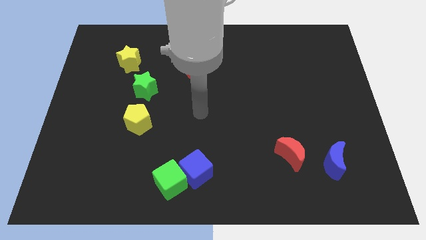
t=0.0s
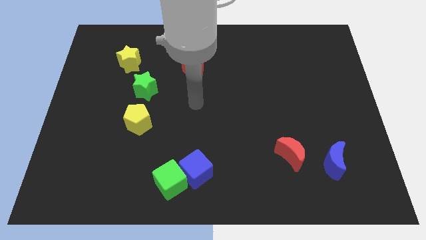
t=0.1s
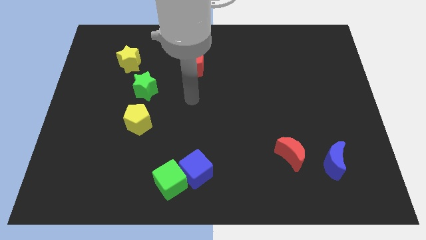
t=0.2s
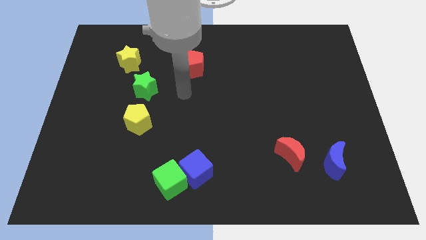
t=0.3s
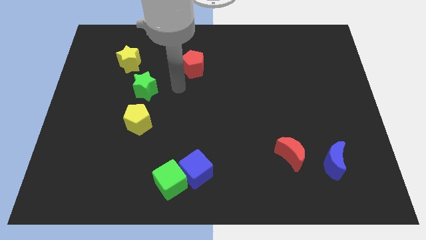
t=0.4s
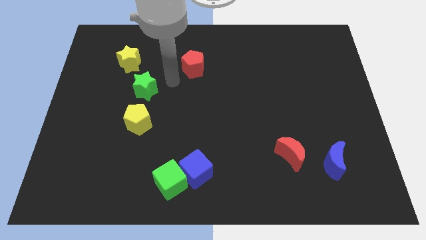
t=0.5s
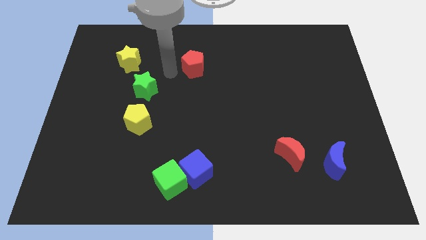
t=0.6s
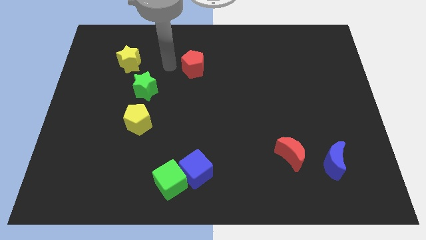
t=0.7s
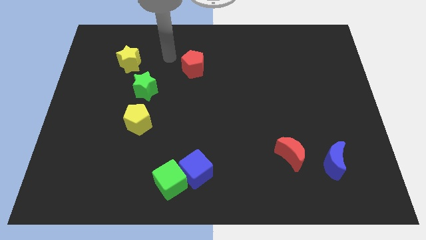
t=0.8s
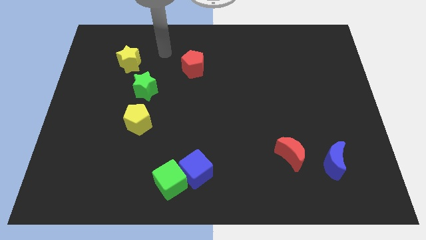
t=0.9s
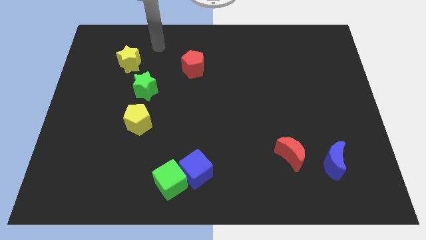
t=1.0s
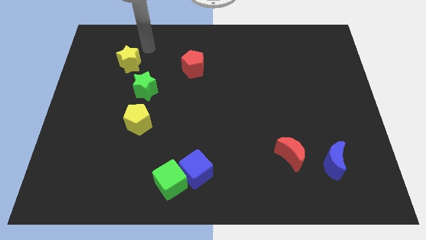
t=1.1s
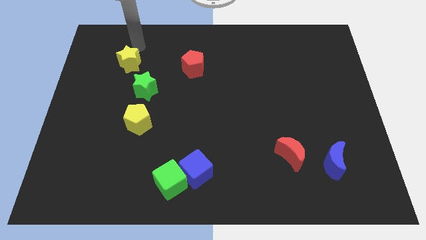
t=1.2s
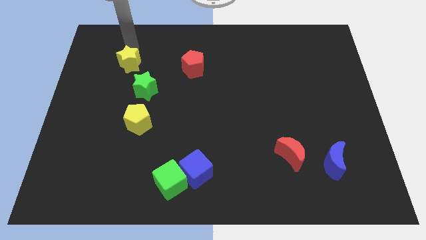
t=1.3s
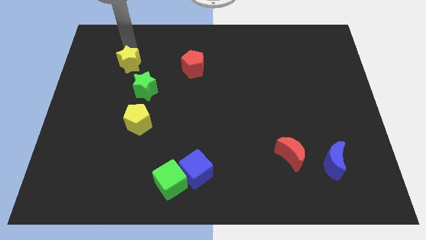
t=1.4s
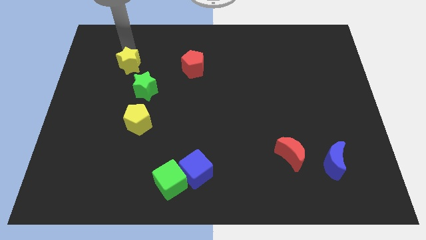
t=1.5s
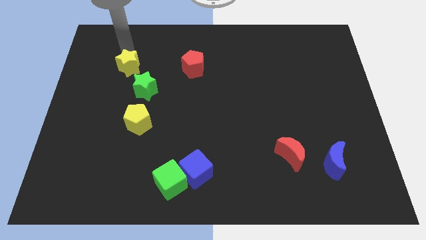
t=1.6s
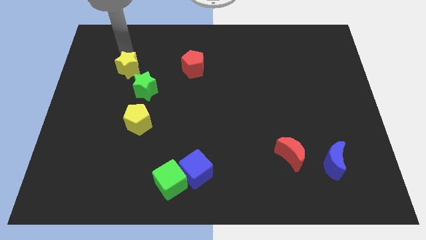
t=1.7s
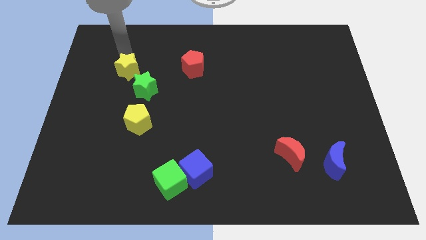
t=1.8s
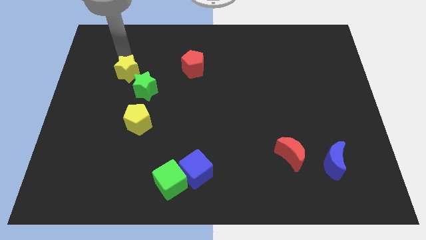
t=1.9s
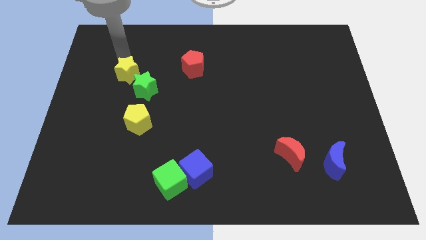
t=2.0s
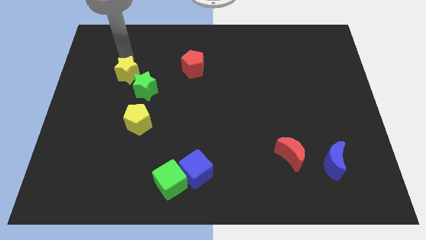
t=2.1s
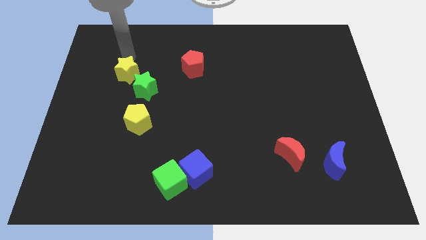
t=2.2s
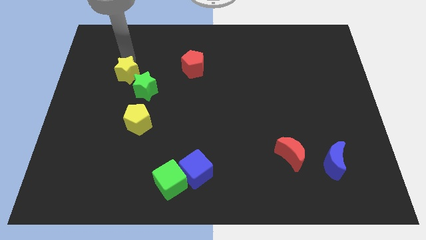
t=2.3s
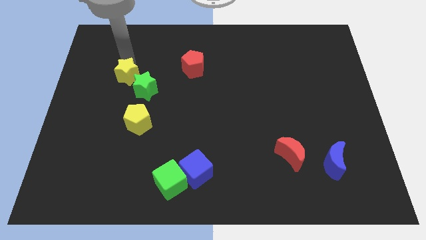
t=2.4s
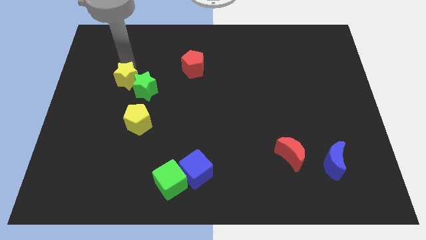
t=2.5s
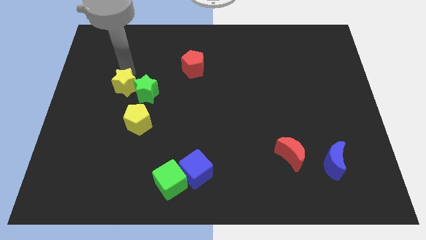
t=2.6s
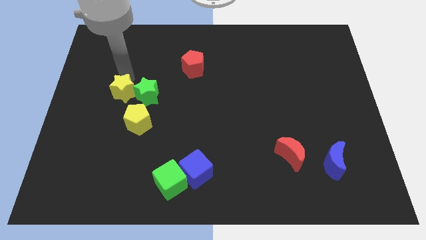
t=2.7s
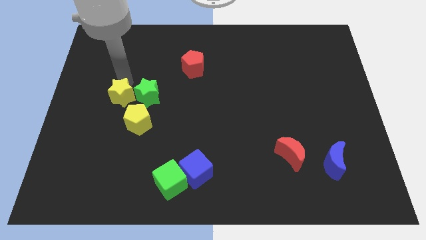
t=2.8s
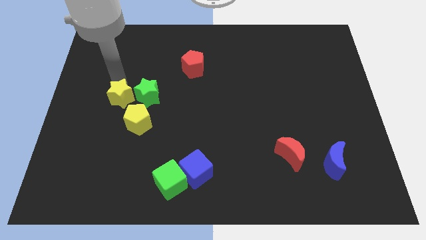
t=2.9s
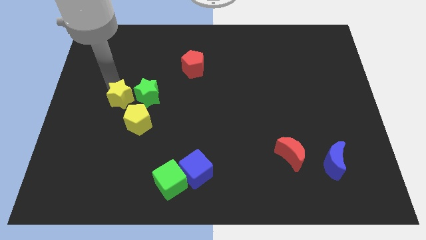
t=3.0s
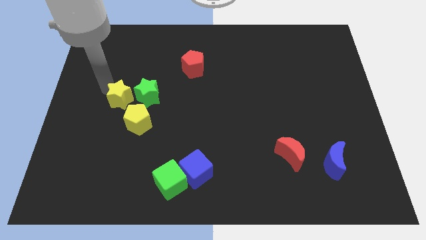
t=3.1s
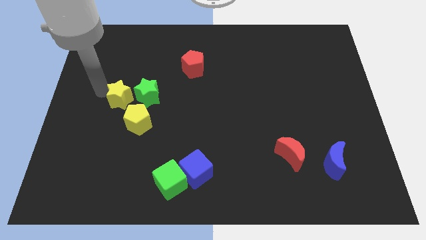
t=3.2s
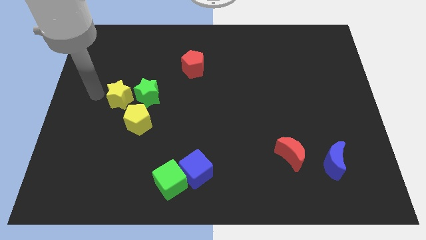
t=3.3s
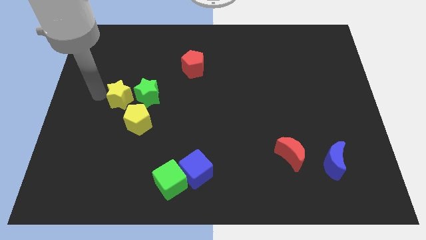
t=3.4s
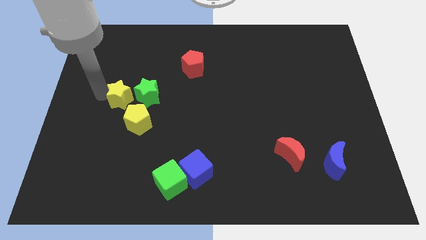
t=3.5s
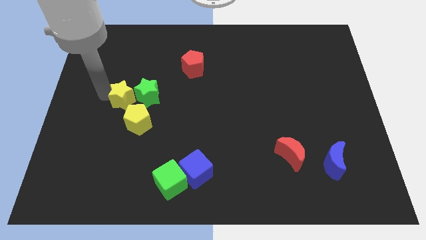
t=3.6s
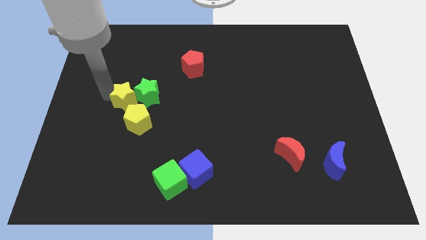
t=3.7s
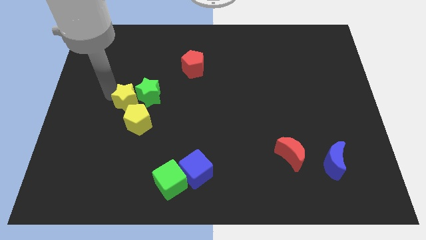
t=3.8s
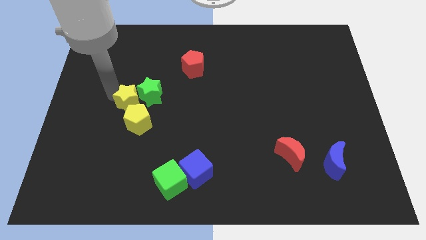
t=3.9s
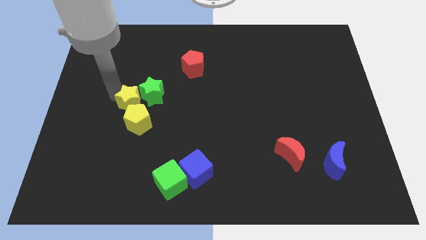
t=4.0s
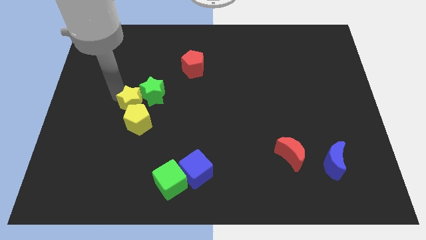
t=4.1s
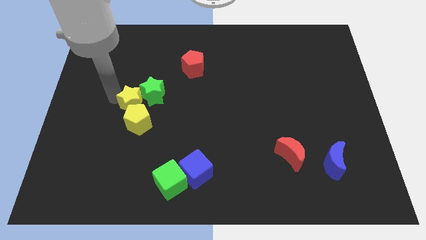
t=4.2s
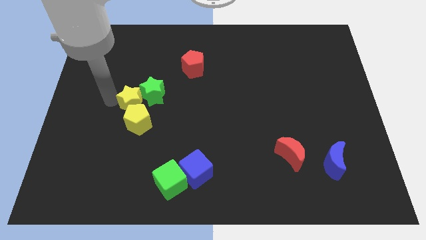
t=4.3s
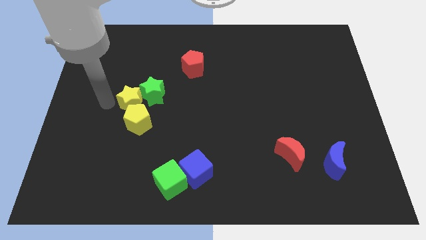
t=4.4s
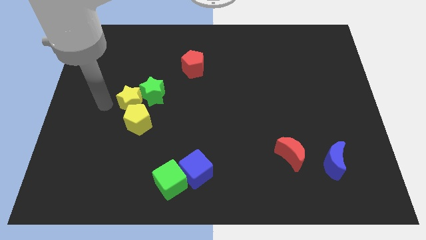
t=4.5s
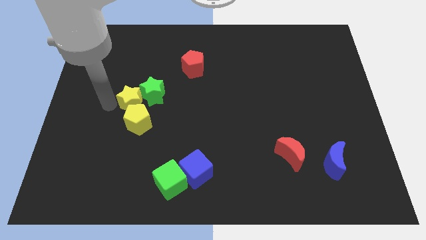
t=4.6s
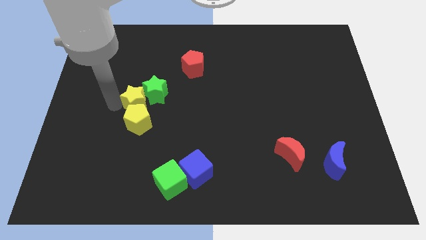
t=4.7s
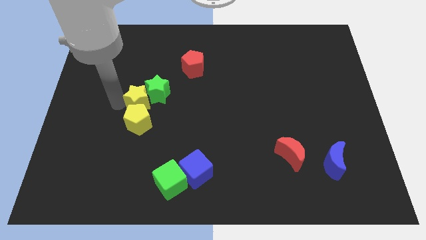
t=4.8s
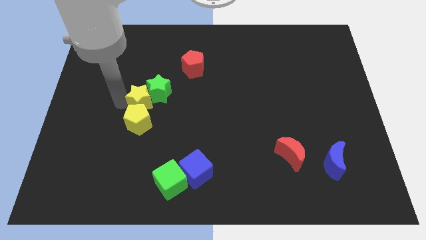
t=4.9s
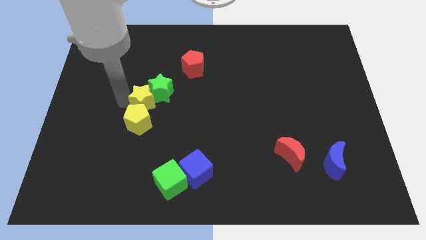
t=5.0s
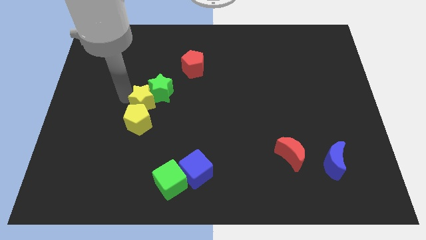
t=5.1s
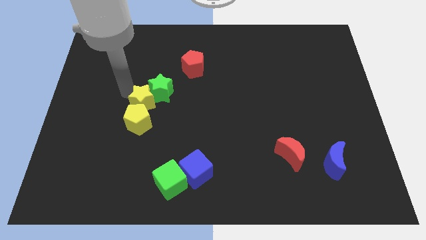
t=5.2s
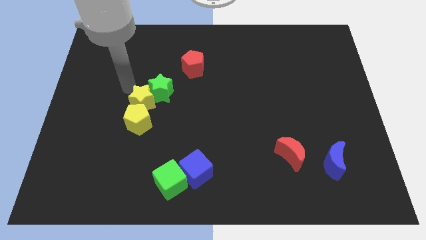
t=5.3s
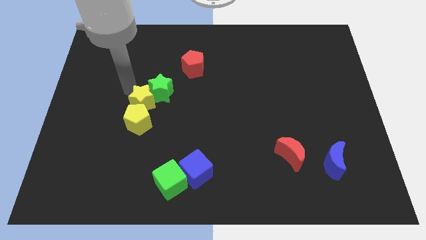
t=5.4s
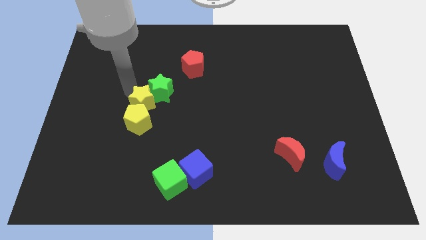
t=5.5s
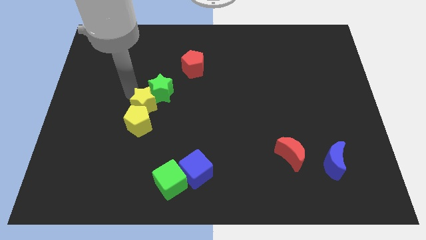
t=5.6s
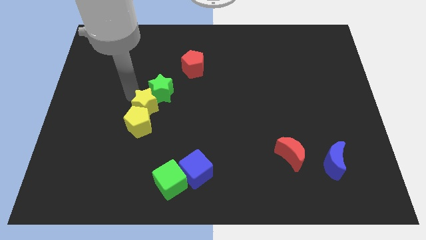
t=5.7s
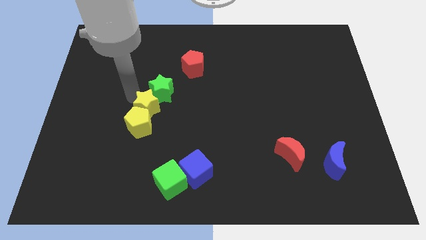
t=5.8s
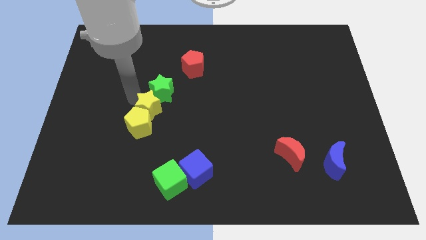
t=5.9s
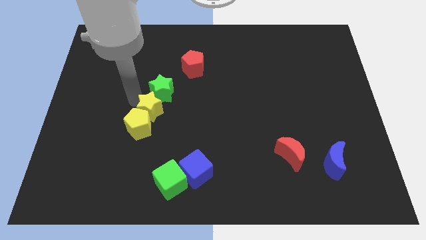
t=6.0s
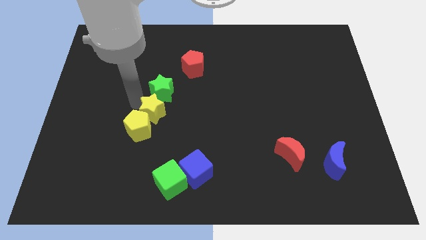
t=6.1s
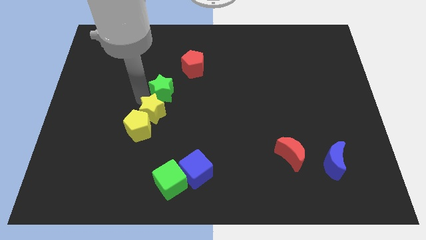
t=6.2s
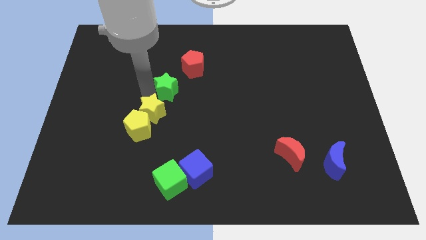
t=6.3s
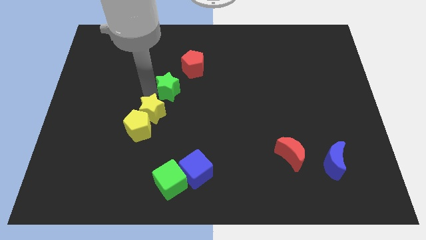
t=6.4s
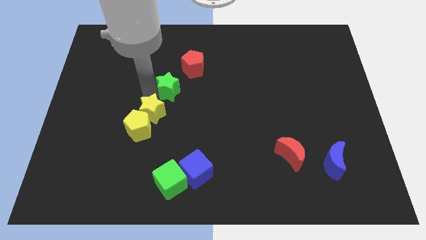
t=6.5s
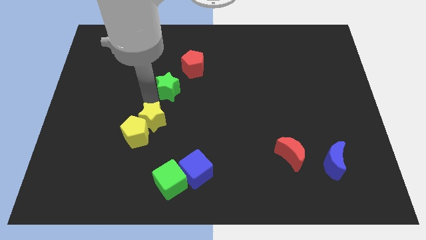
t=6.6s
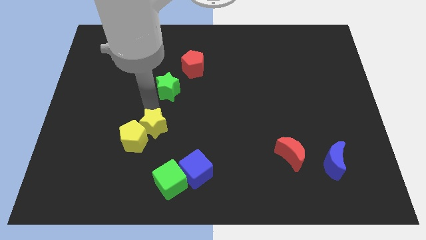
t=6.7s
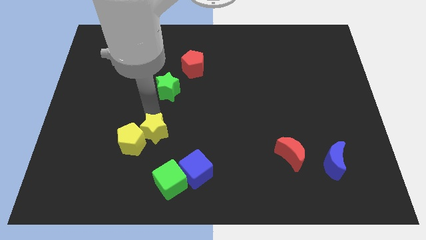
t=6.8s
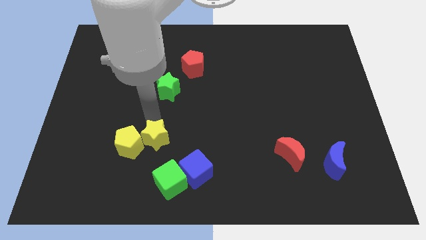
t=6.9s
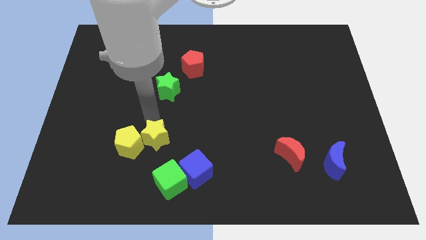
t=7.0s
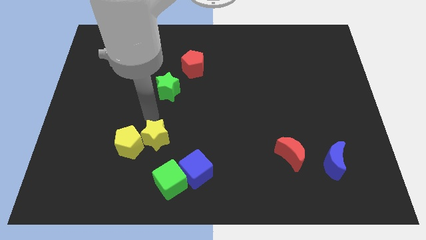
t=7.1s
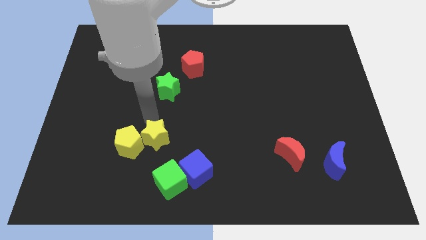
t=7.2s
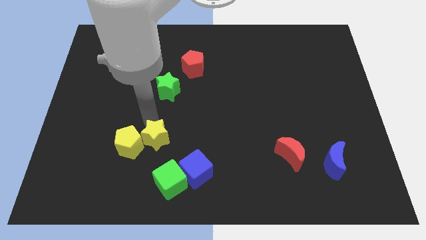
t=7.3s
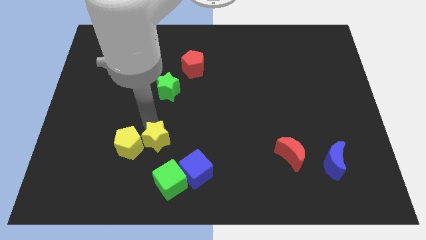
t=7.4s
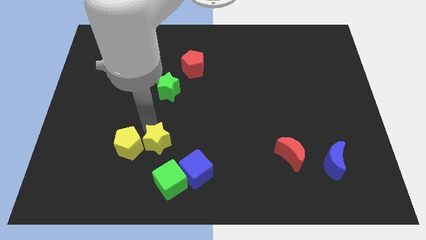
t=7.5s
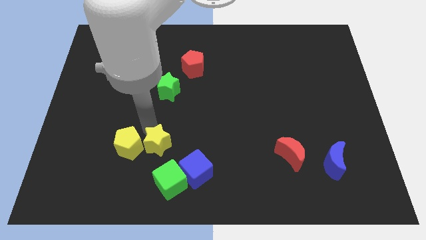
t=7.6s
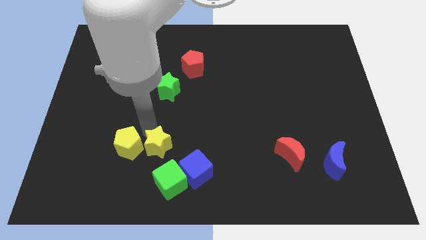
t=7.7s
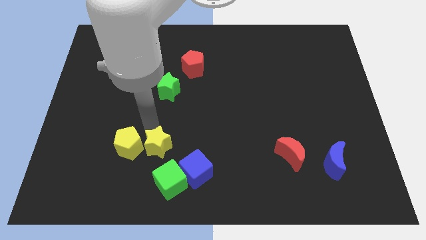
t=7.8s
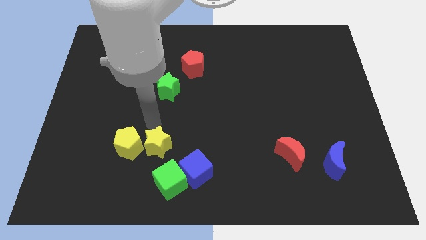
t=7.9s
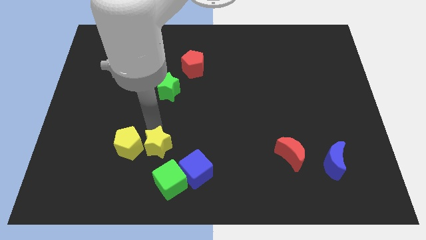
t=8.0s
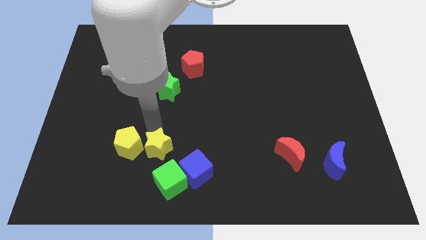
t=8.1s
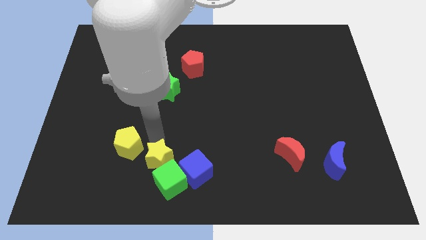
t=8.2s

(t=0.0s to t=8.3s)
slide the yellow star next to the green cube
